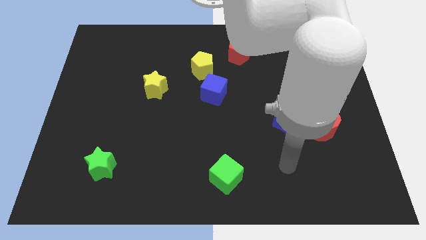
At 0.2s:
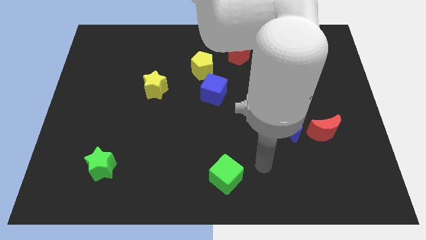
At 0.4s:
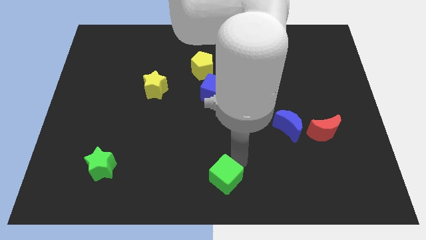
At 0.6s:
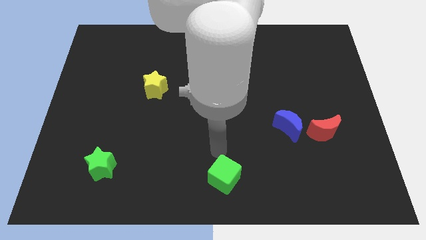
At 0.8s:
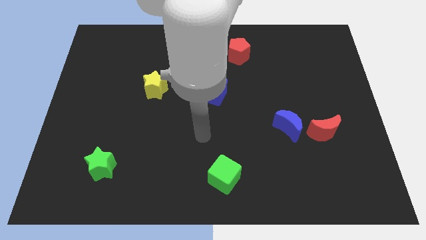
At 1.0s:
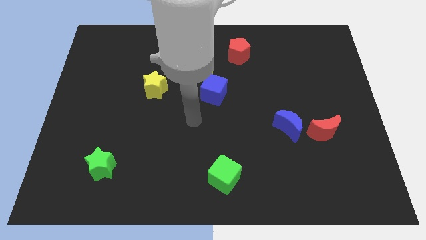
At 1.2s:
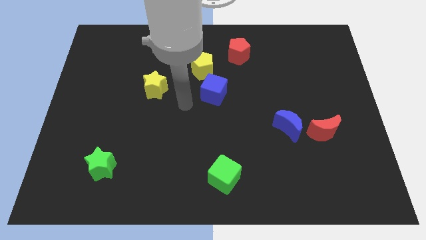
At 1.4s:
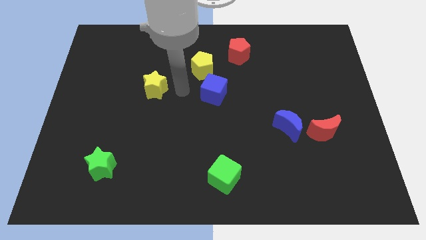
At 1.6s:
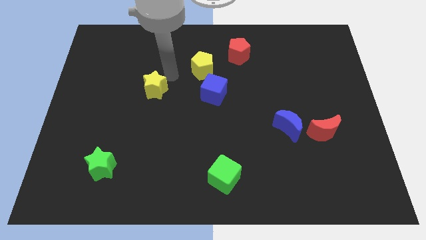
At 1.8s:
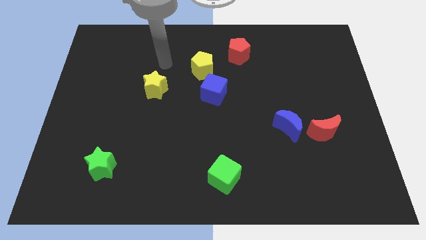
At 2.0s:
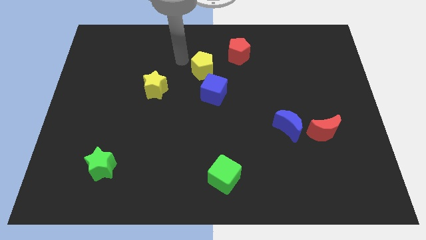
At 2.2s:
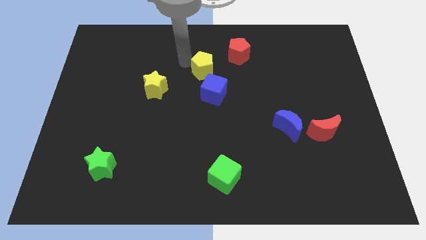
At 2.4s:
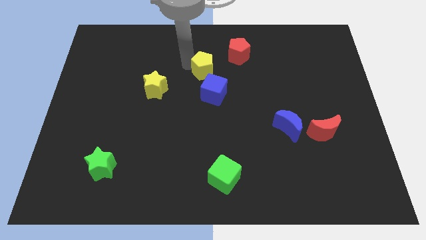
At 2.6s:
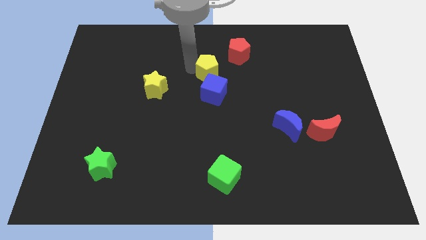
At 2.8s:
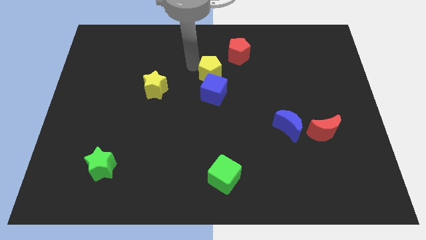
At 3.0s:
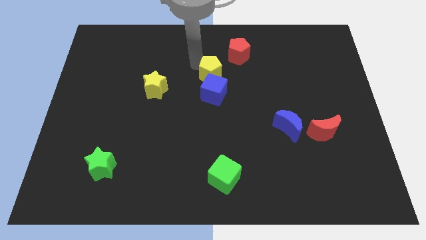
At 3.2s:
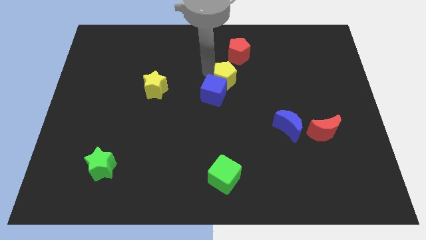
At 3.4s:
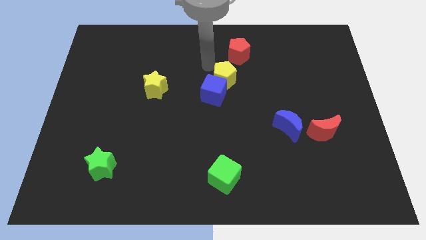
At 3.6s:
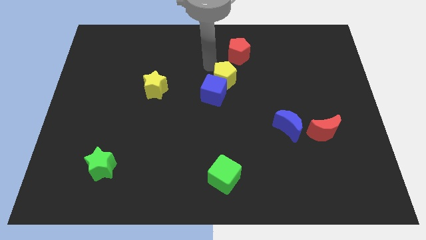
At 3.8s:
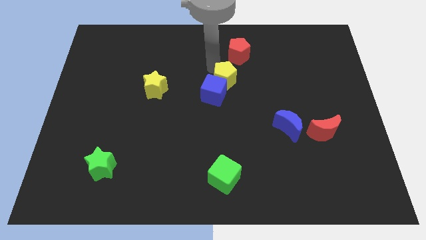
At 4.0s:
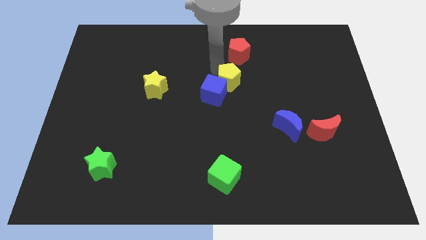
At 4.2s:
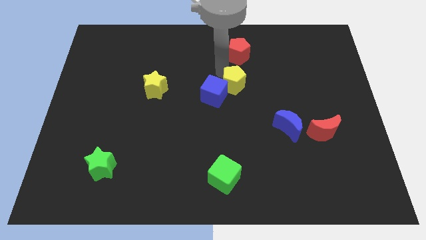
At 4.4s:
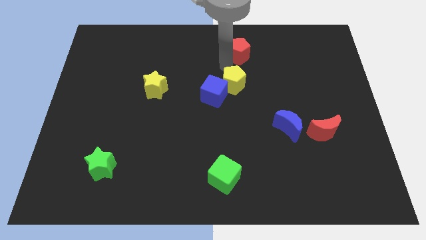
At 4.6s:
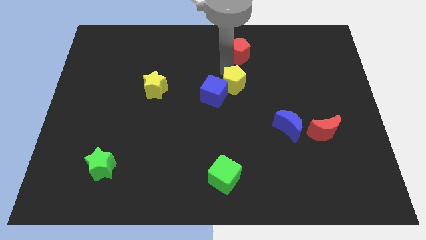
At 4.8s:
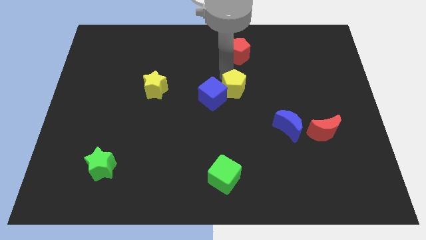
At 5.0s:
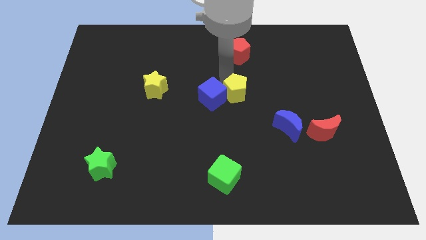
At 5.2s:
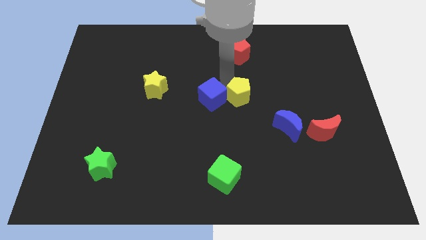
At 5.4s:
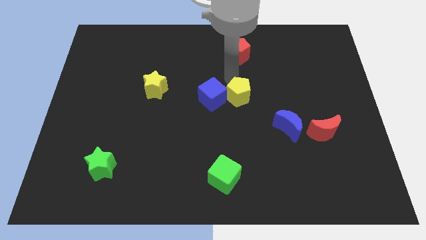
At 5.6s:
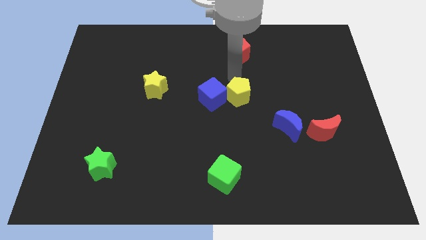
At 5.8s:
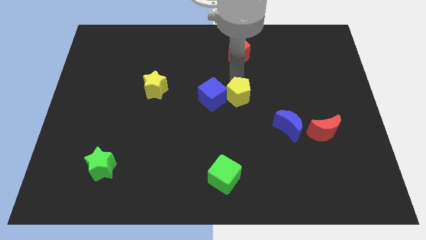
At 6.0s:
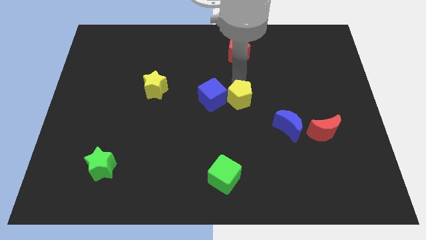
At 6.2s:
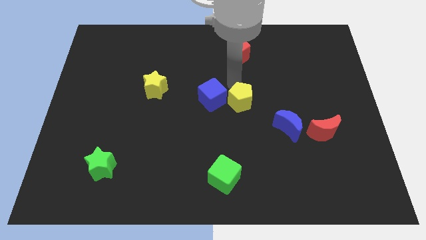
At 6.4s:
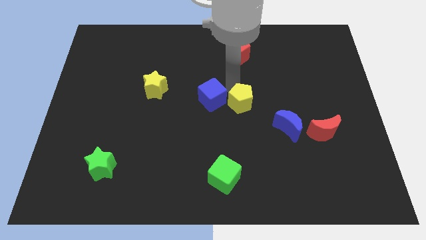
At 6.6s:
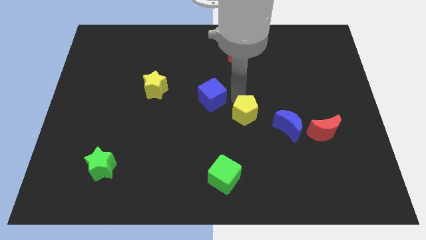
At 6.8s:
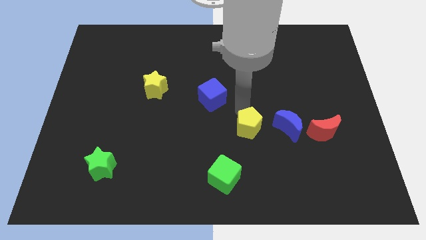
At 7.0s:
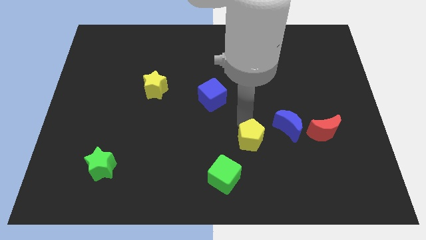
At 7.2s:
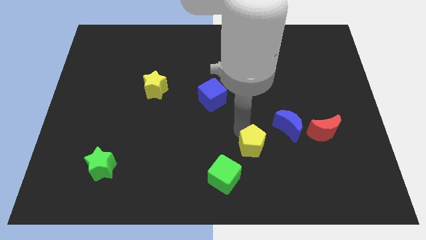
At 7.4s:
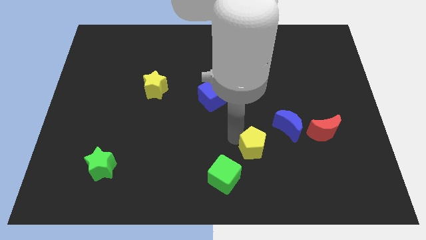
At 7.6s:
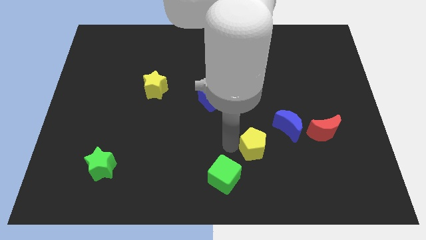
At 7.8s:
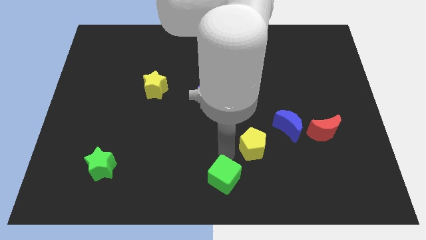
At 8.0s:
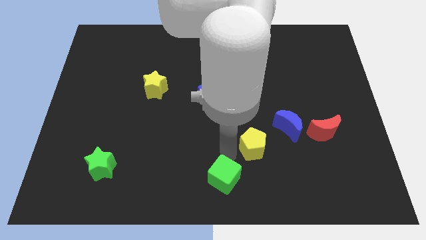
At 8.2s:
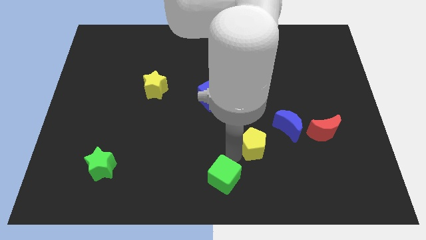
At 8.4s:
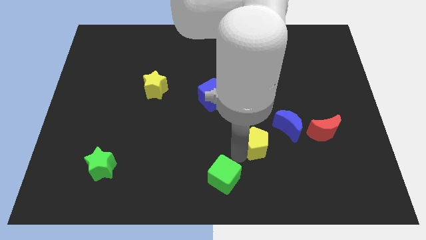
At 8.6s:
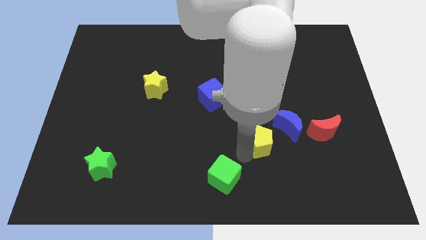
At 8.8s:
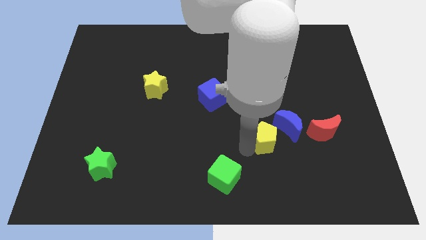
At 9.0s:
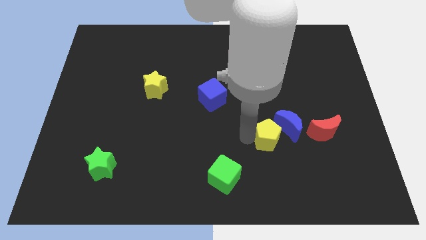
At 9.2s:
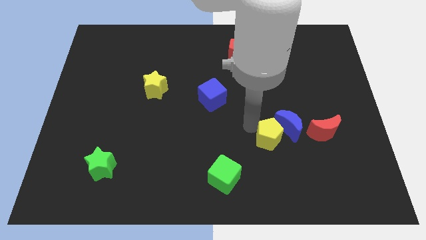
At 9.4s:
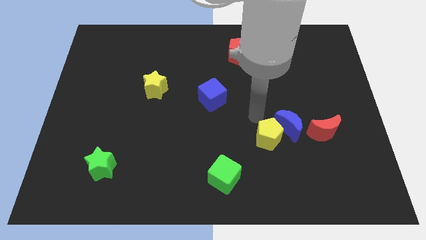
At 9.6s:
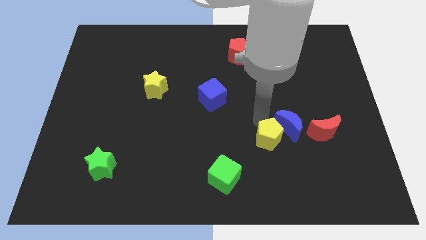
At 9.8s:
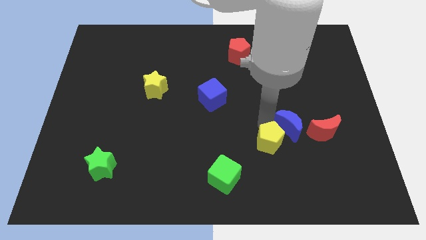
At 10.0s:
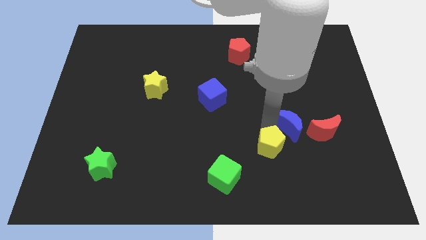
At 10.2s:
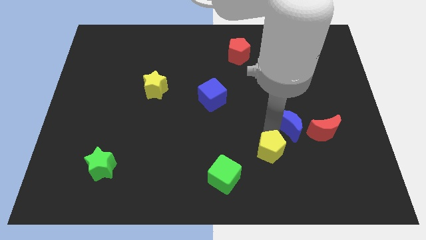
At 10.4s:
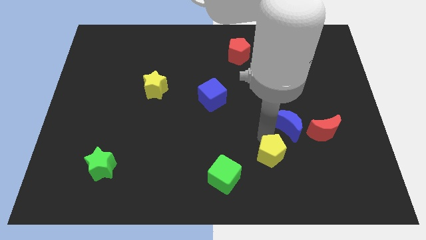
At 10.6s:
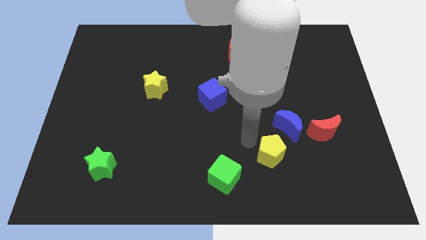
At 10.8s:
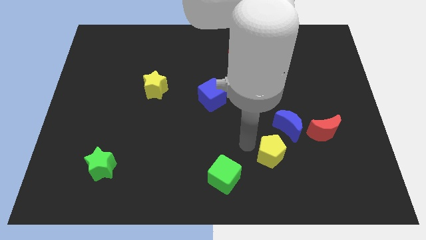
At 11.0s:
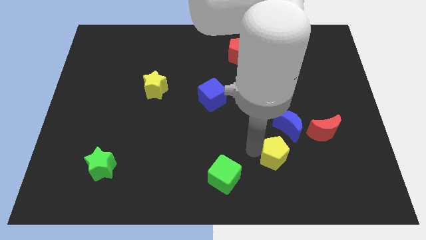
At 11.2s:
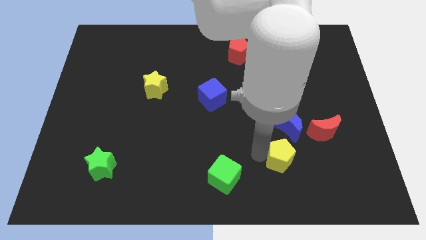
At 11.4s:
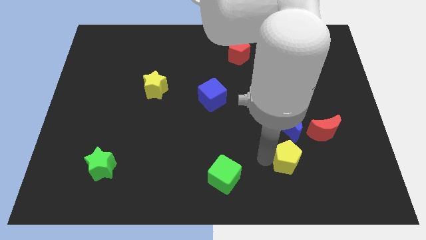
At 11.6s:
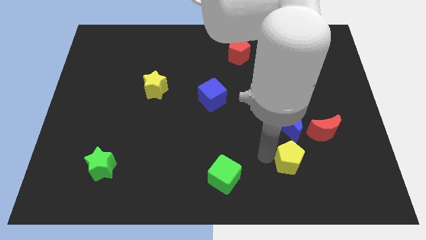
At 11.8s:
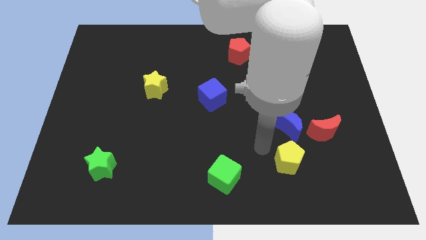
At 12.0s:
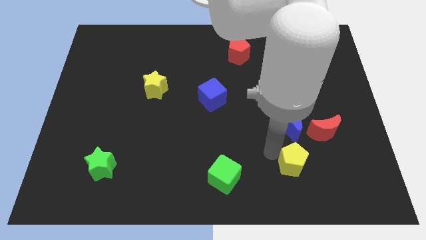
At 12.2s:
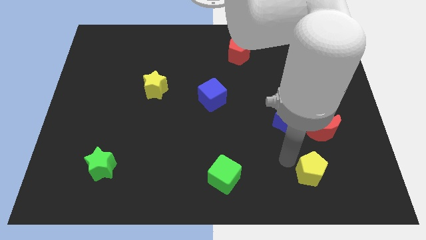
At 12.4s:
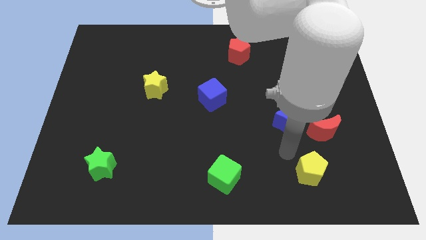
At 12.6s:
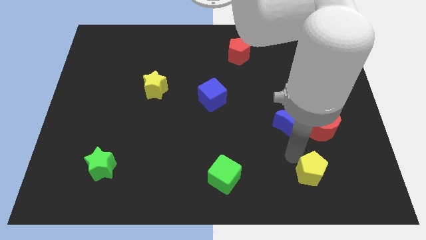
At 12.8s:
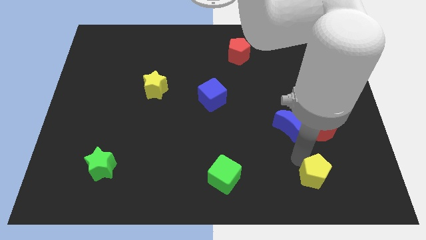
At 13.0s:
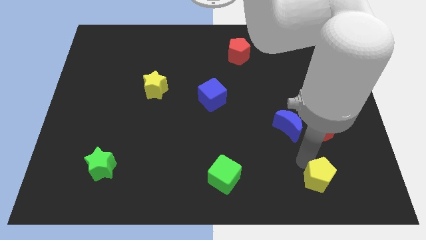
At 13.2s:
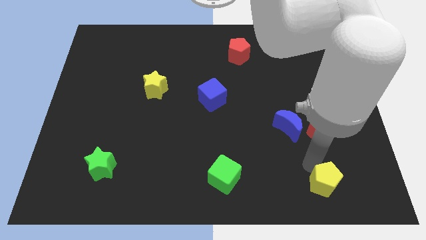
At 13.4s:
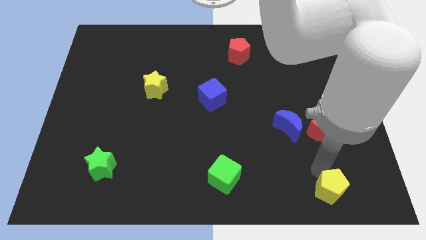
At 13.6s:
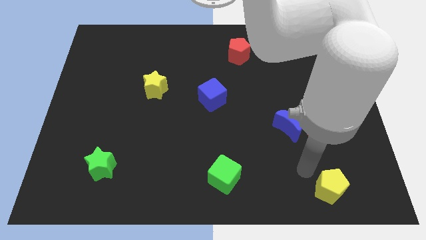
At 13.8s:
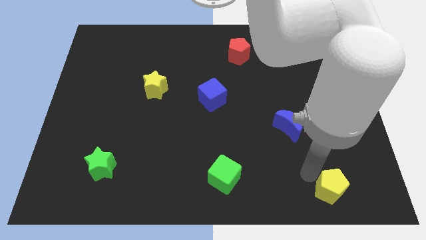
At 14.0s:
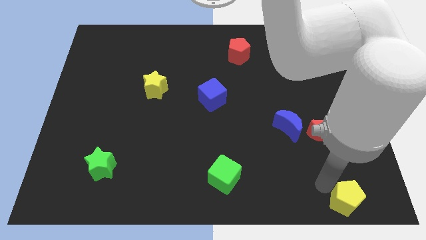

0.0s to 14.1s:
push the yellow pentagon to the bottom right of the board
